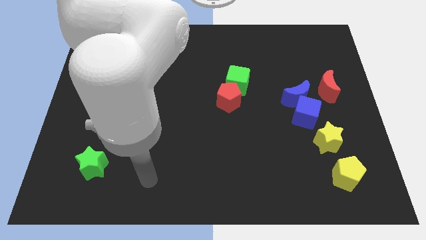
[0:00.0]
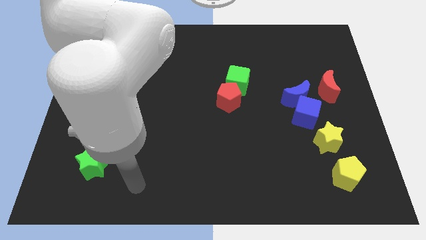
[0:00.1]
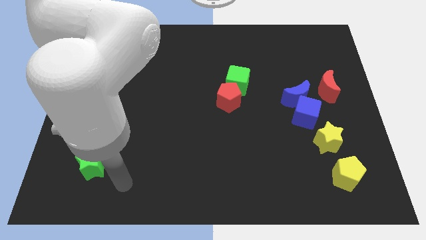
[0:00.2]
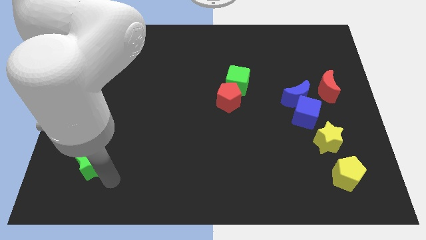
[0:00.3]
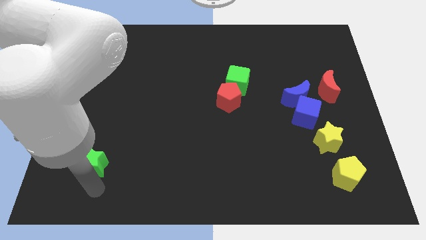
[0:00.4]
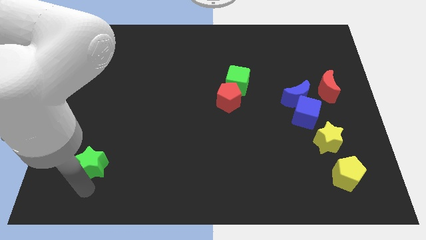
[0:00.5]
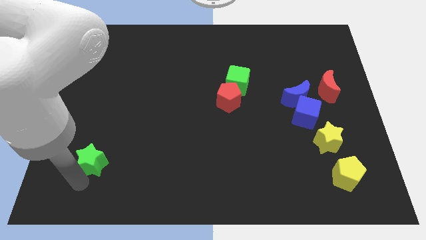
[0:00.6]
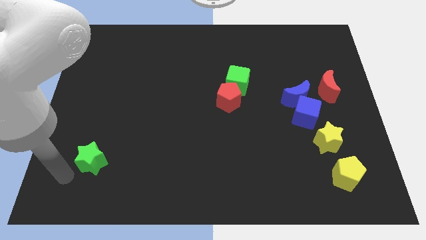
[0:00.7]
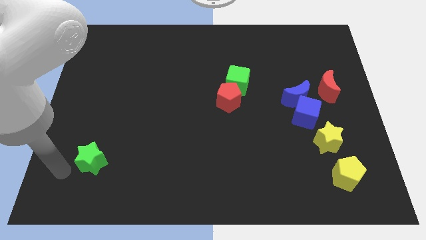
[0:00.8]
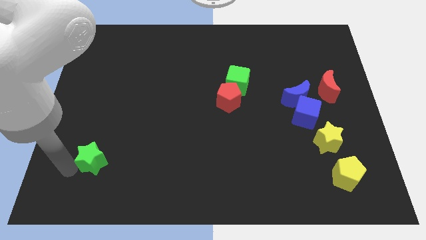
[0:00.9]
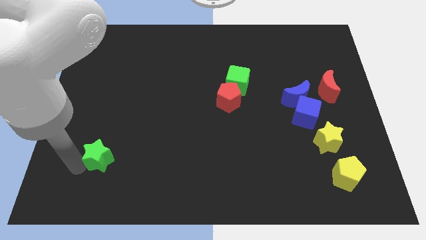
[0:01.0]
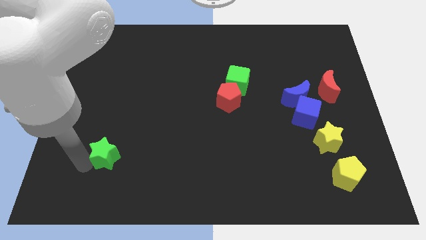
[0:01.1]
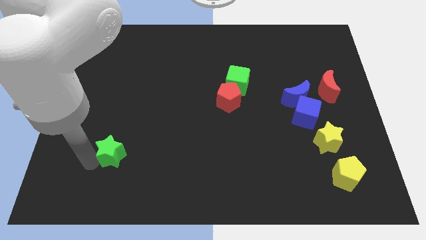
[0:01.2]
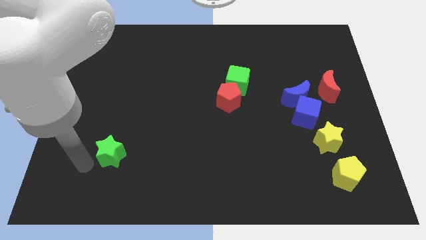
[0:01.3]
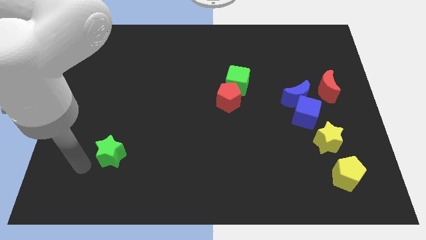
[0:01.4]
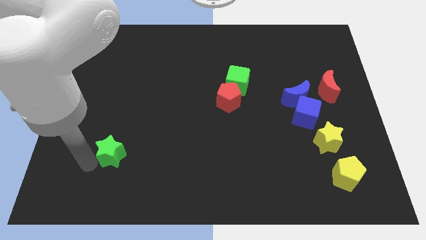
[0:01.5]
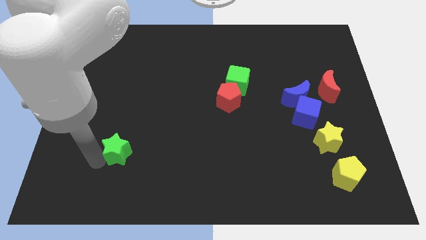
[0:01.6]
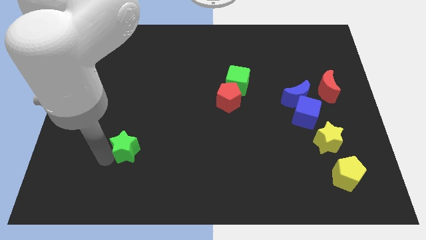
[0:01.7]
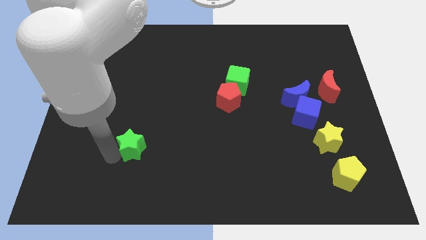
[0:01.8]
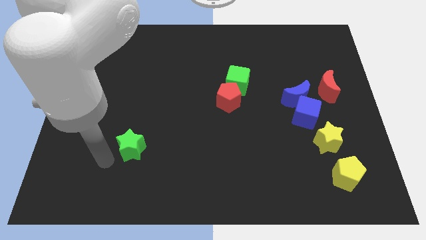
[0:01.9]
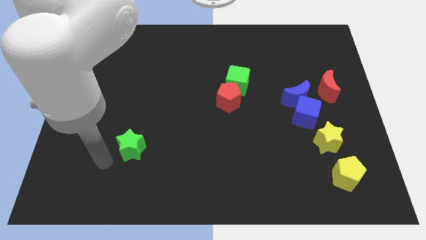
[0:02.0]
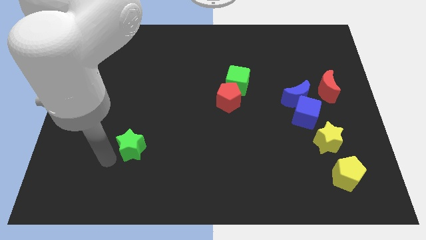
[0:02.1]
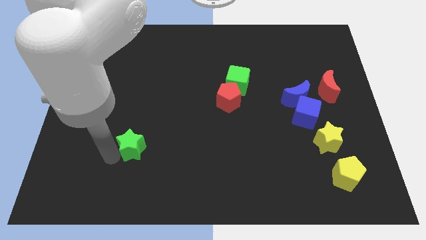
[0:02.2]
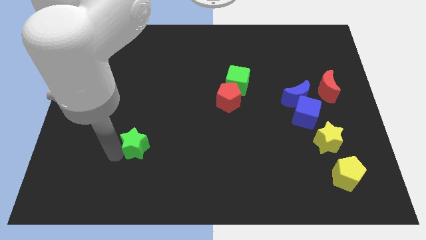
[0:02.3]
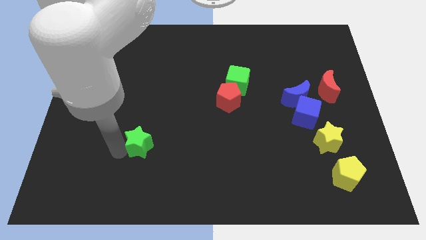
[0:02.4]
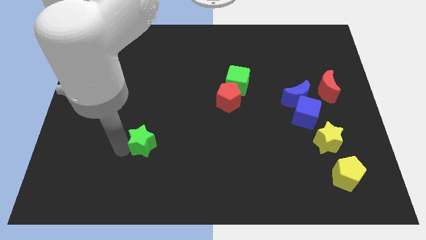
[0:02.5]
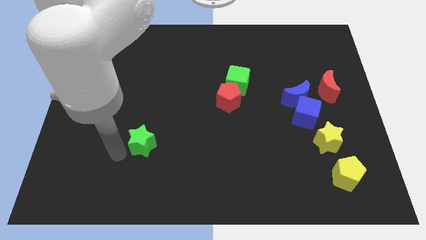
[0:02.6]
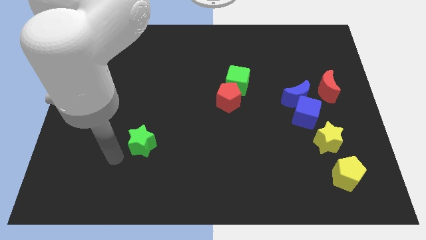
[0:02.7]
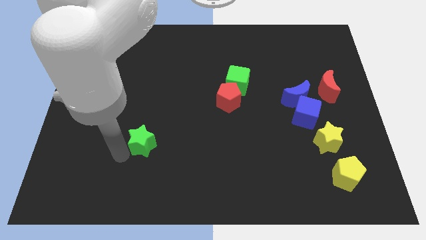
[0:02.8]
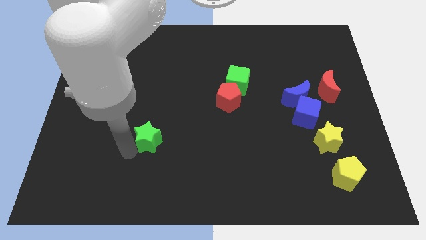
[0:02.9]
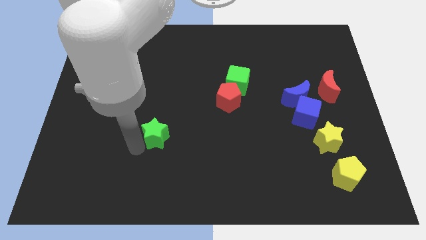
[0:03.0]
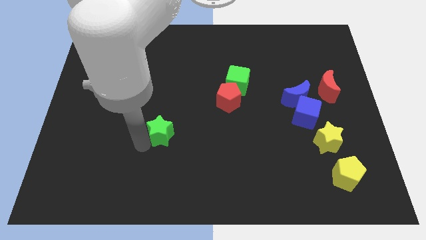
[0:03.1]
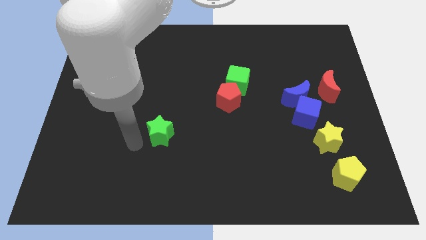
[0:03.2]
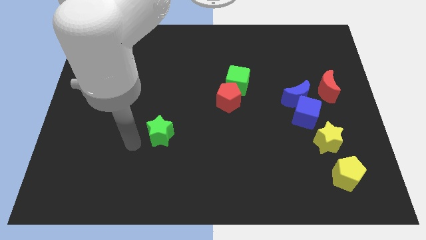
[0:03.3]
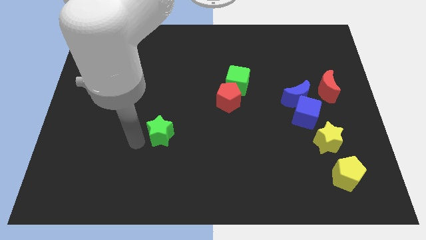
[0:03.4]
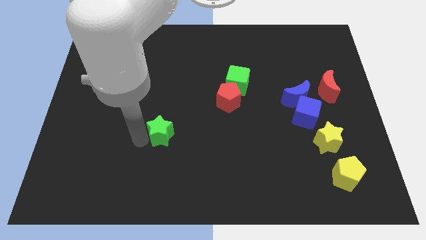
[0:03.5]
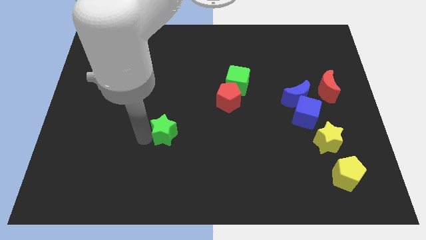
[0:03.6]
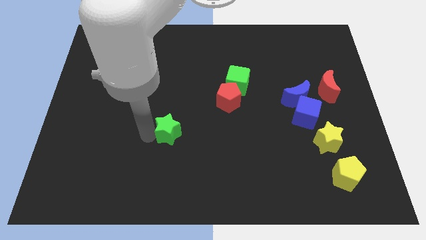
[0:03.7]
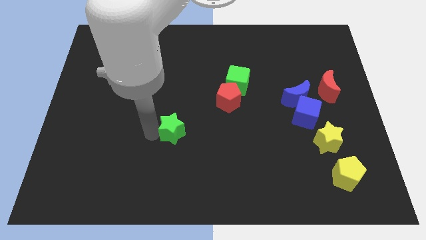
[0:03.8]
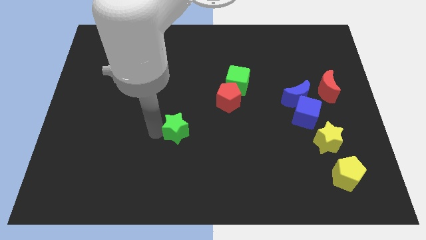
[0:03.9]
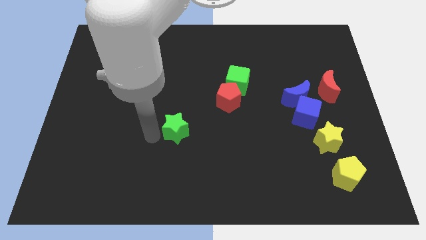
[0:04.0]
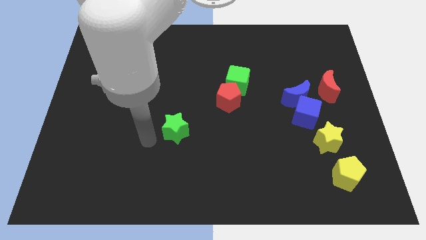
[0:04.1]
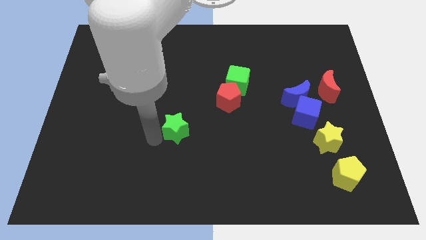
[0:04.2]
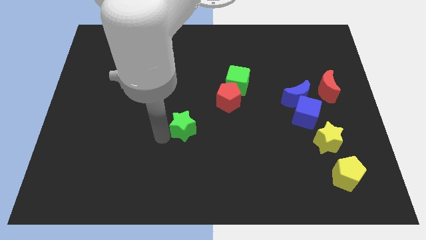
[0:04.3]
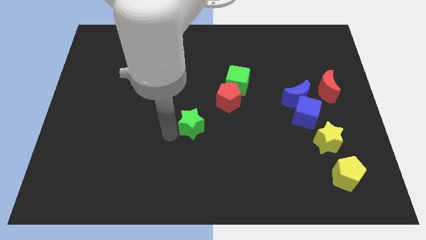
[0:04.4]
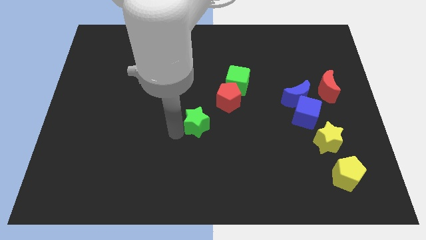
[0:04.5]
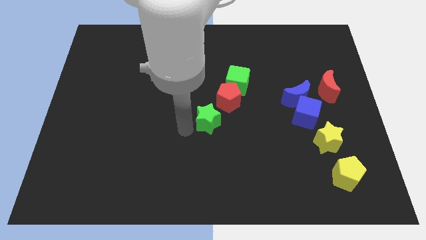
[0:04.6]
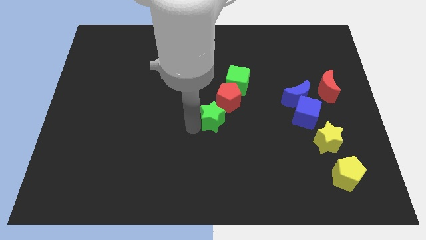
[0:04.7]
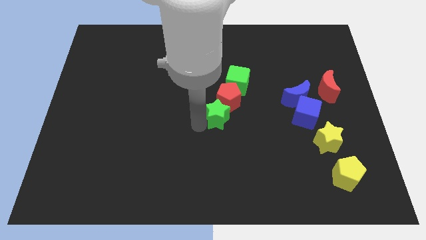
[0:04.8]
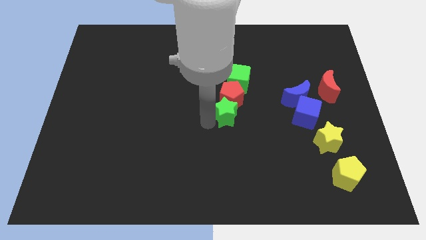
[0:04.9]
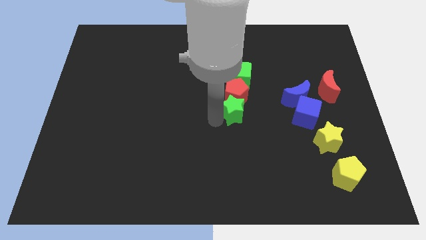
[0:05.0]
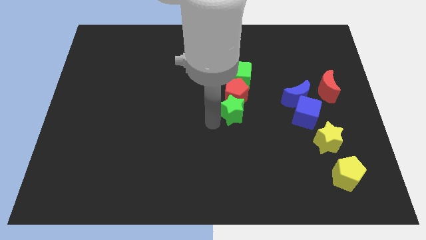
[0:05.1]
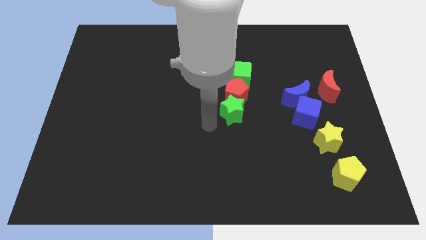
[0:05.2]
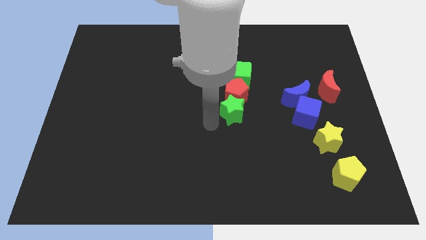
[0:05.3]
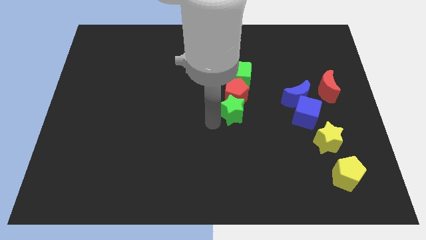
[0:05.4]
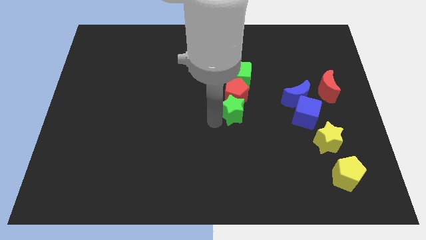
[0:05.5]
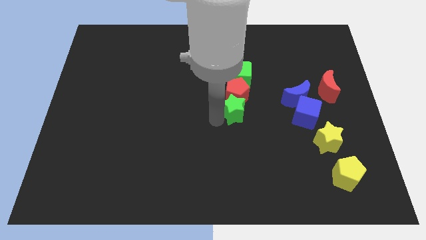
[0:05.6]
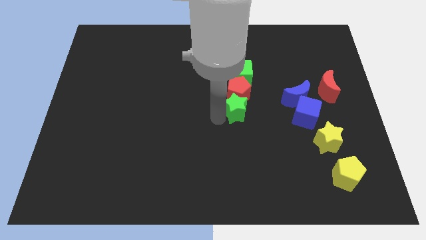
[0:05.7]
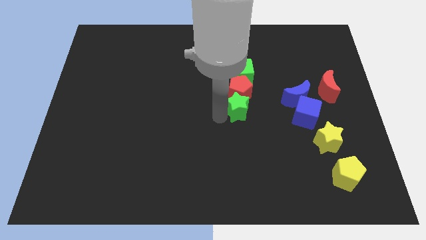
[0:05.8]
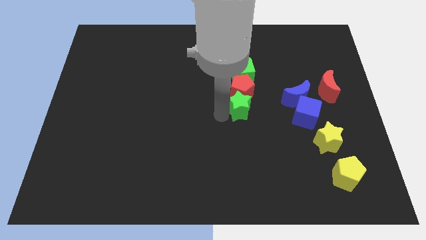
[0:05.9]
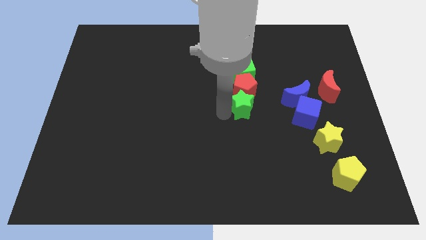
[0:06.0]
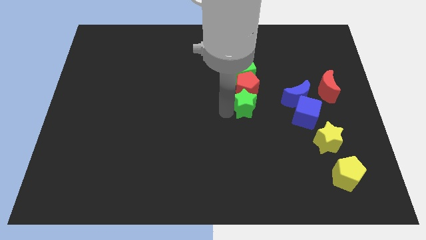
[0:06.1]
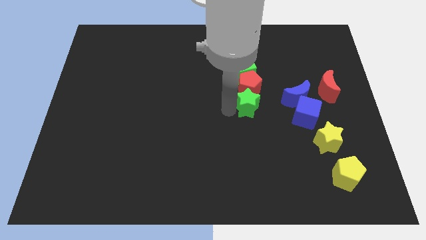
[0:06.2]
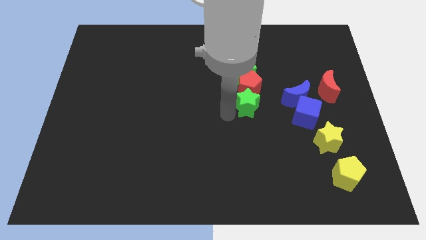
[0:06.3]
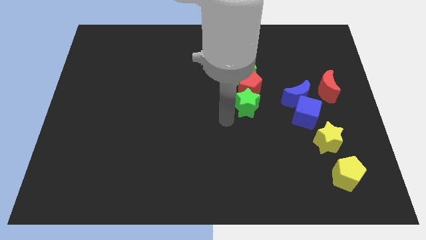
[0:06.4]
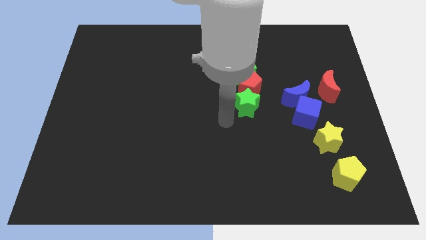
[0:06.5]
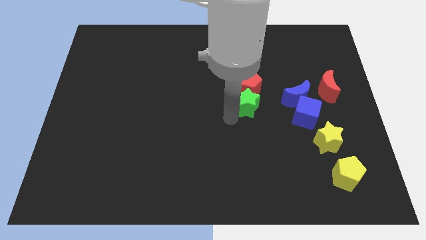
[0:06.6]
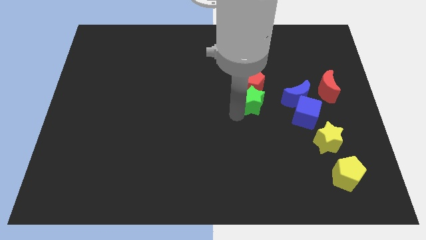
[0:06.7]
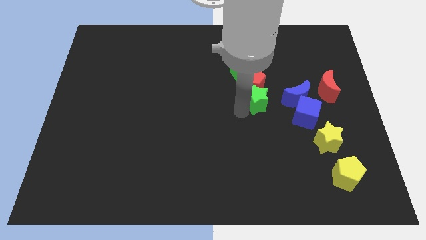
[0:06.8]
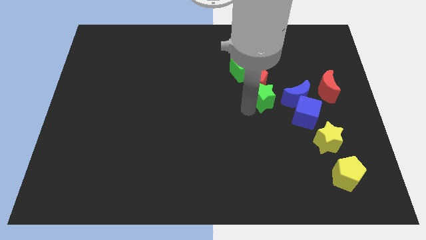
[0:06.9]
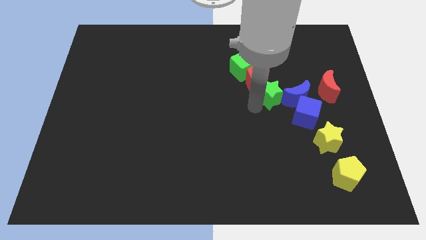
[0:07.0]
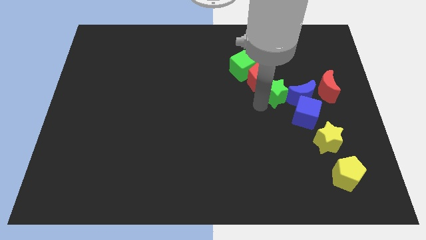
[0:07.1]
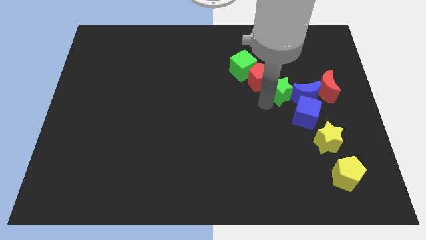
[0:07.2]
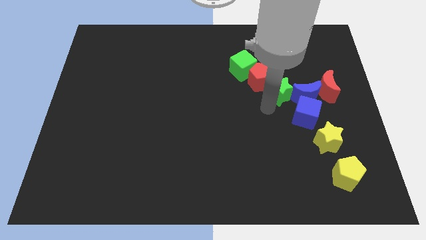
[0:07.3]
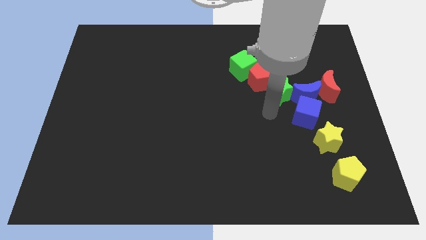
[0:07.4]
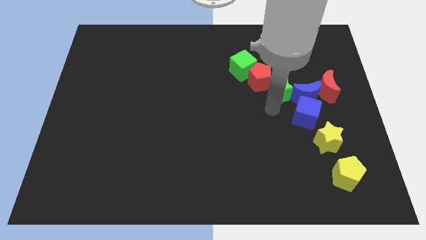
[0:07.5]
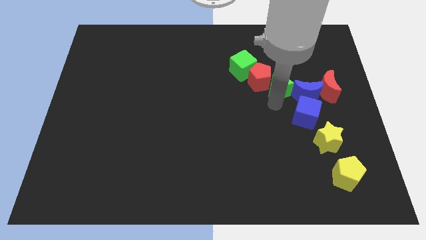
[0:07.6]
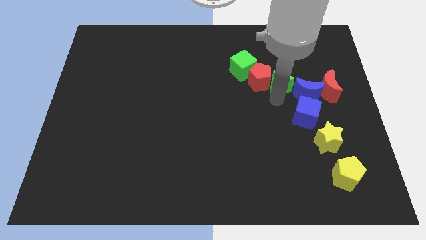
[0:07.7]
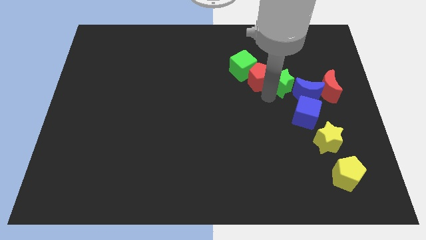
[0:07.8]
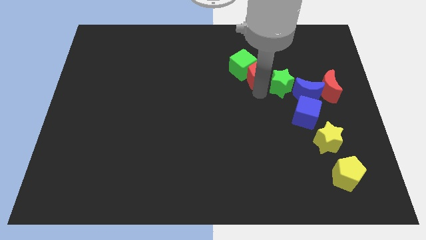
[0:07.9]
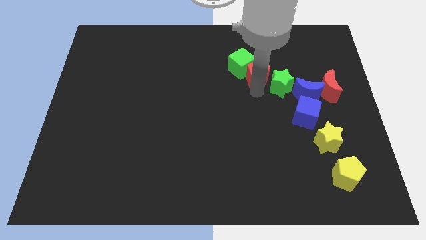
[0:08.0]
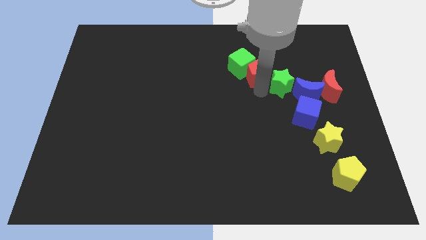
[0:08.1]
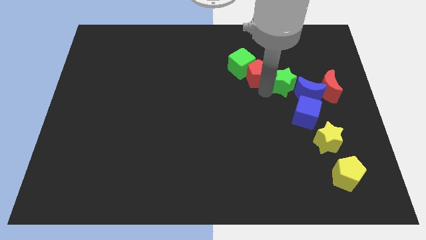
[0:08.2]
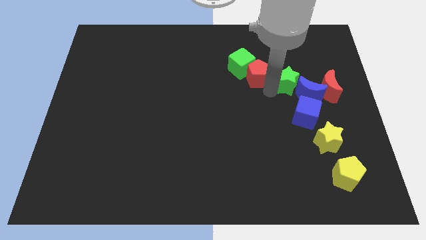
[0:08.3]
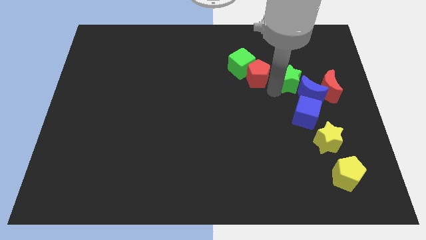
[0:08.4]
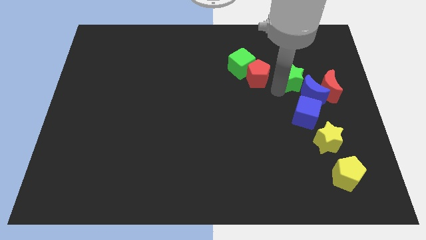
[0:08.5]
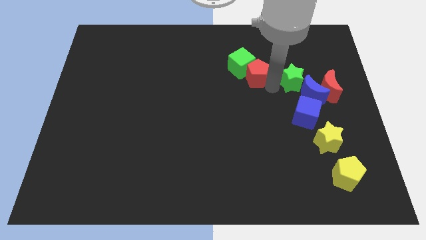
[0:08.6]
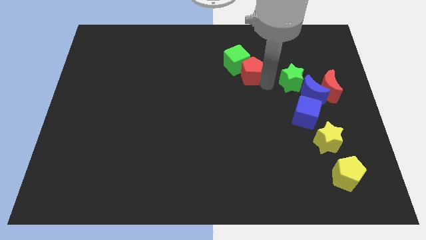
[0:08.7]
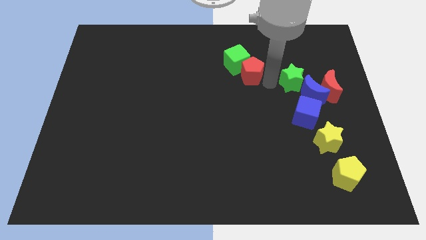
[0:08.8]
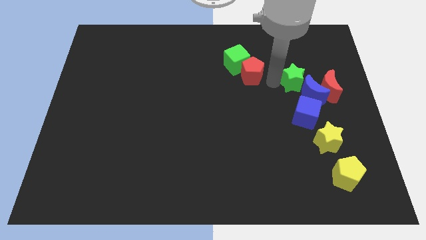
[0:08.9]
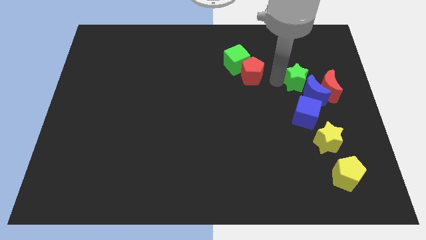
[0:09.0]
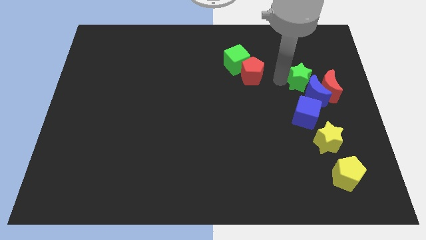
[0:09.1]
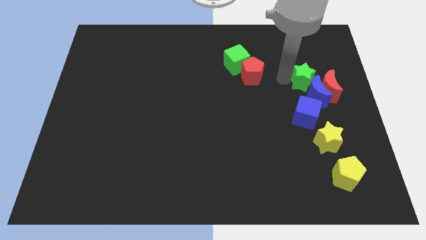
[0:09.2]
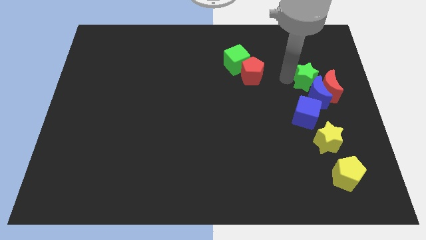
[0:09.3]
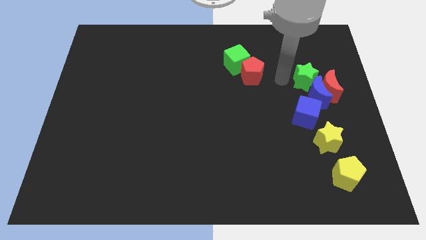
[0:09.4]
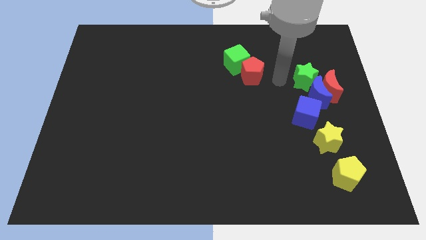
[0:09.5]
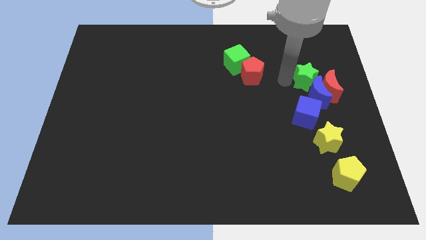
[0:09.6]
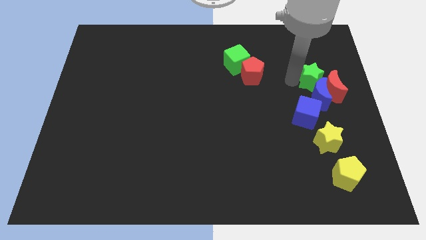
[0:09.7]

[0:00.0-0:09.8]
push the green star to the top right side of the blue moon
